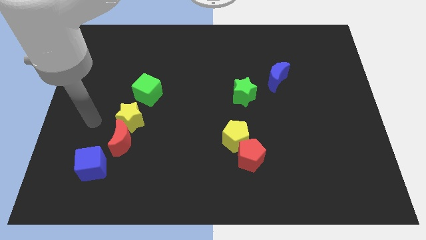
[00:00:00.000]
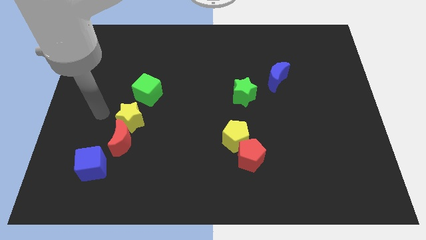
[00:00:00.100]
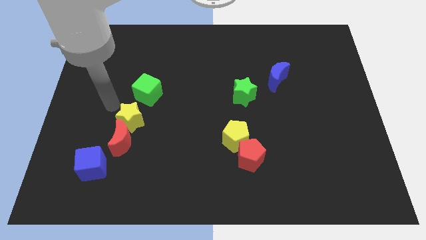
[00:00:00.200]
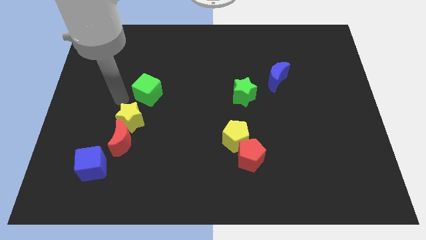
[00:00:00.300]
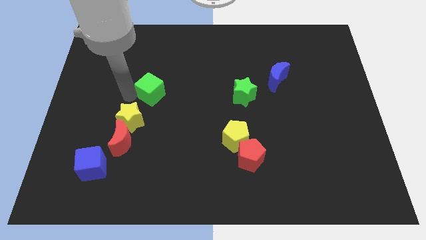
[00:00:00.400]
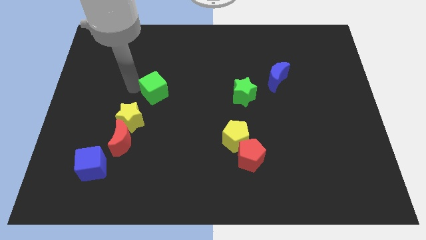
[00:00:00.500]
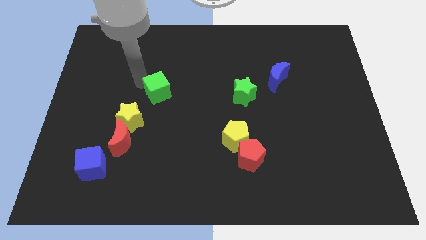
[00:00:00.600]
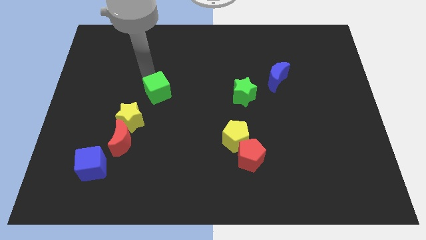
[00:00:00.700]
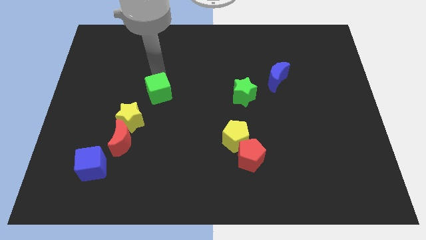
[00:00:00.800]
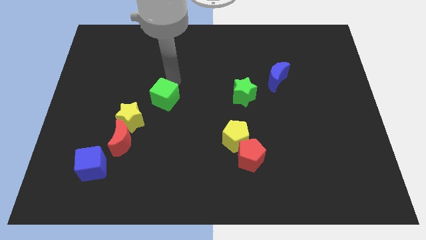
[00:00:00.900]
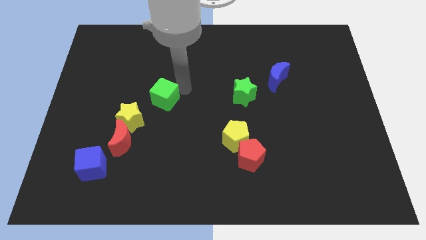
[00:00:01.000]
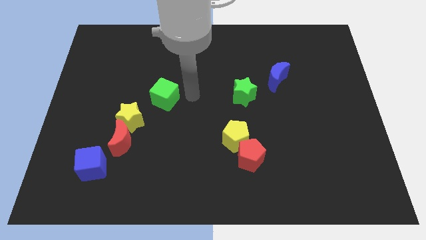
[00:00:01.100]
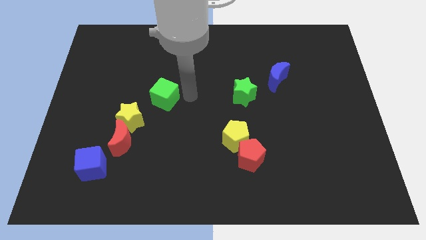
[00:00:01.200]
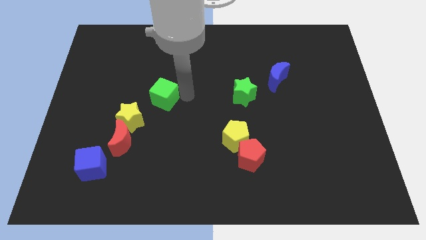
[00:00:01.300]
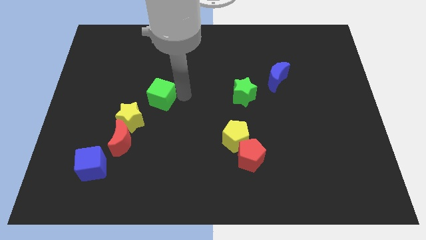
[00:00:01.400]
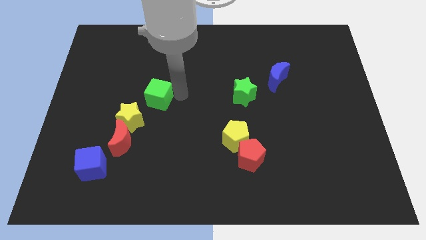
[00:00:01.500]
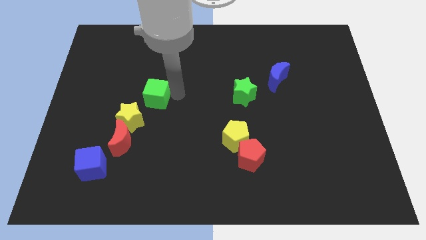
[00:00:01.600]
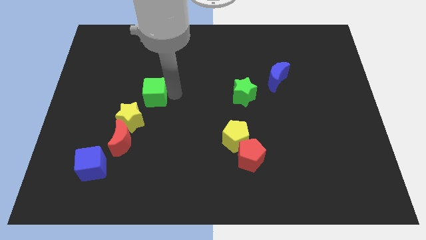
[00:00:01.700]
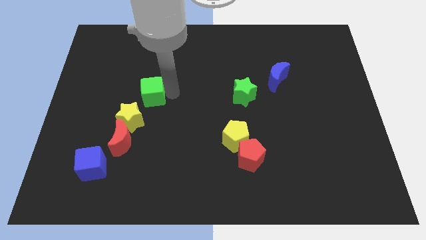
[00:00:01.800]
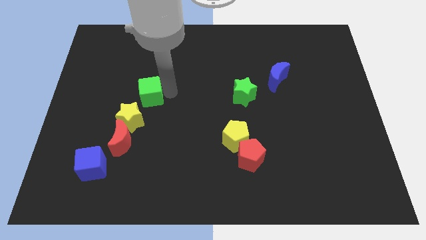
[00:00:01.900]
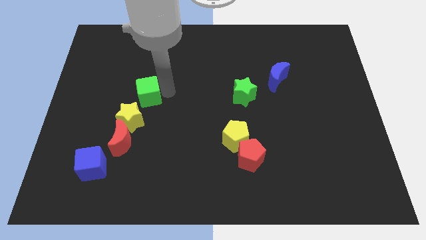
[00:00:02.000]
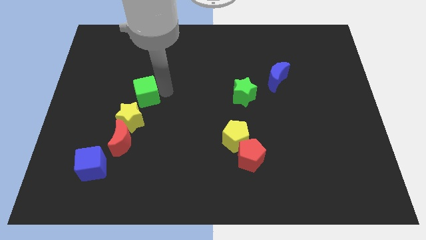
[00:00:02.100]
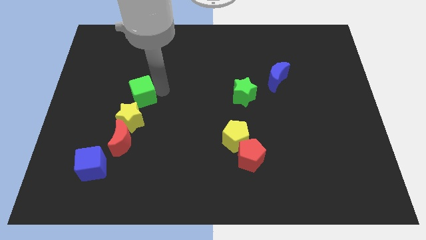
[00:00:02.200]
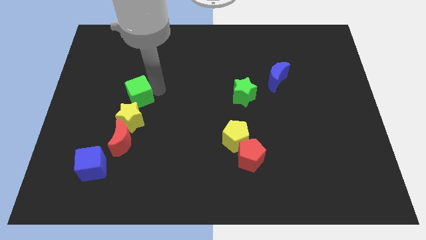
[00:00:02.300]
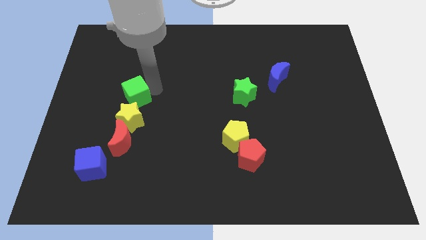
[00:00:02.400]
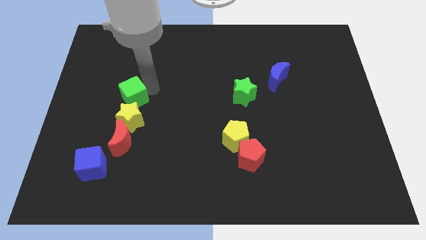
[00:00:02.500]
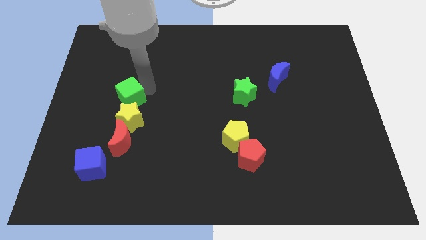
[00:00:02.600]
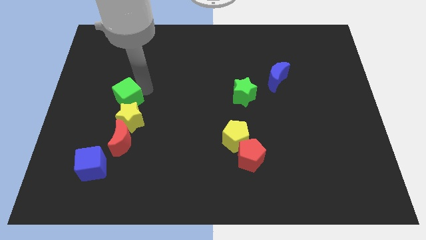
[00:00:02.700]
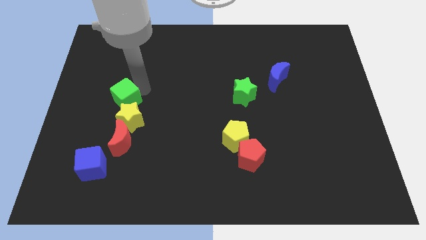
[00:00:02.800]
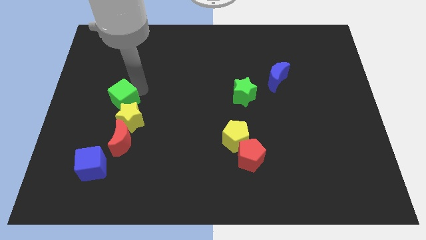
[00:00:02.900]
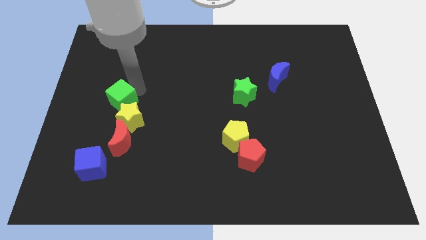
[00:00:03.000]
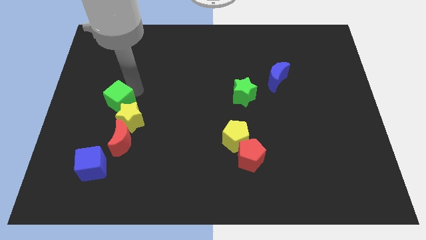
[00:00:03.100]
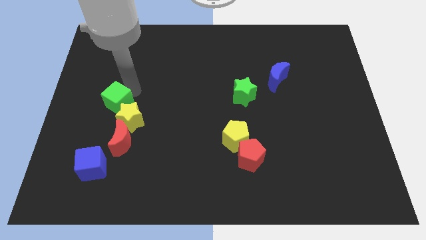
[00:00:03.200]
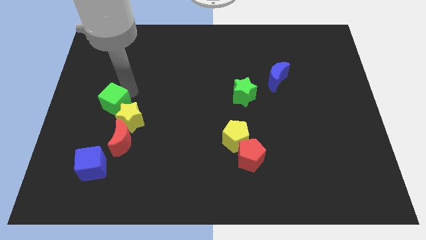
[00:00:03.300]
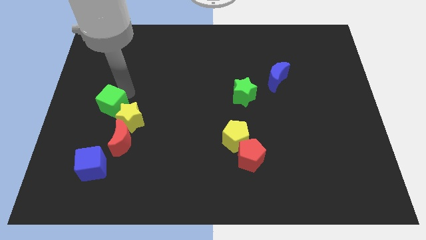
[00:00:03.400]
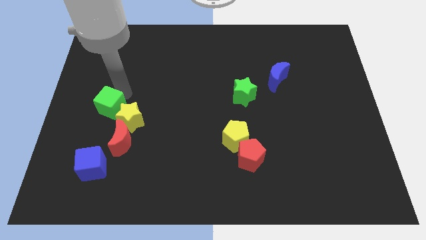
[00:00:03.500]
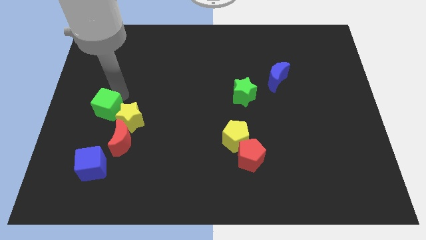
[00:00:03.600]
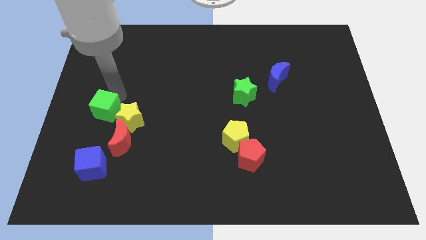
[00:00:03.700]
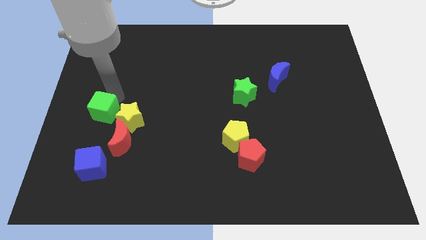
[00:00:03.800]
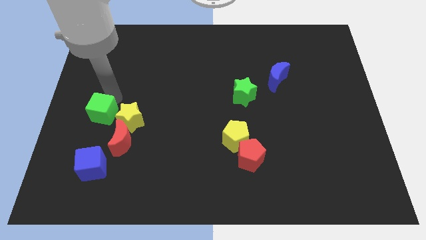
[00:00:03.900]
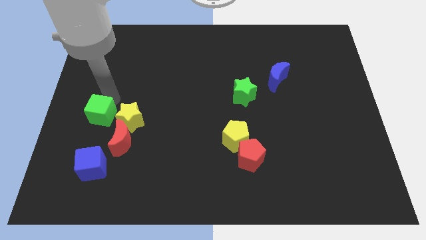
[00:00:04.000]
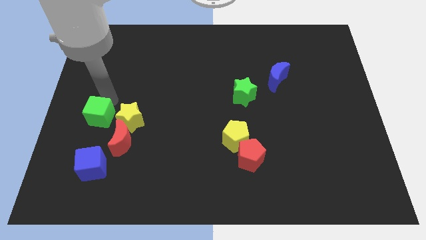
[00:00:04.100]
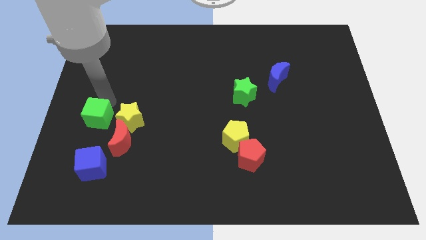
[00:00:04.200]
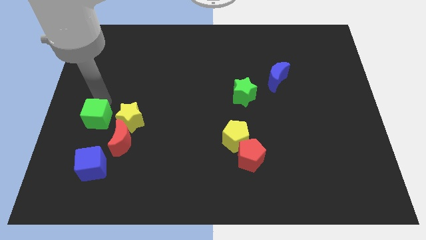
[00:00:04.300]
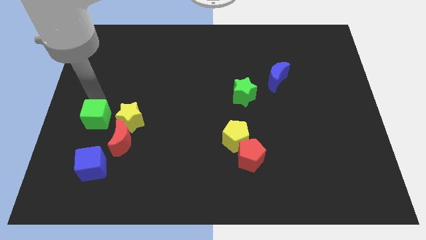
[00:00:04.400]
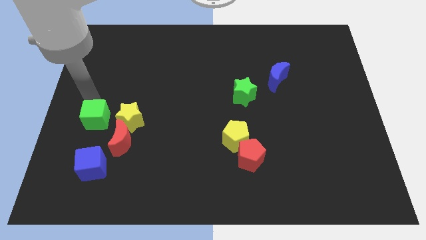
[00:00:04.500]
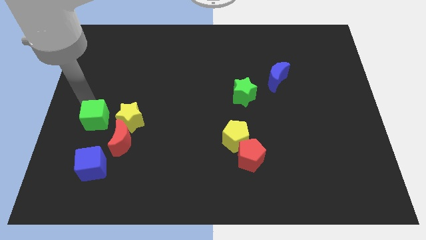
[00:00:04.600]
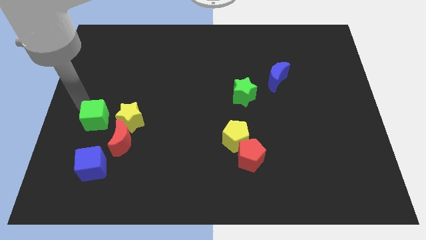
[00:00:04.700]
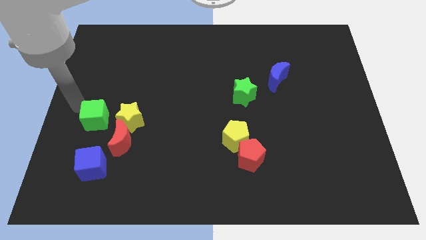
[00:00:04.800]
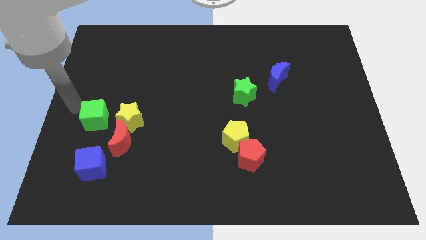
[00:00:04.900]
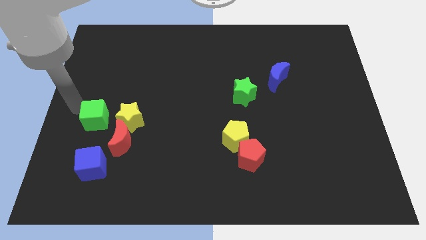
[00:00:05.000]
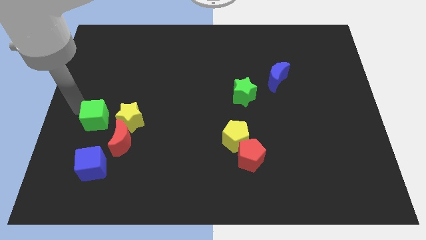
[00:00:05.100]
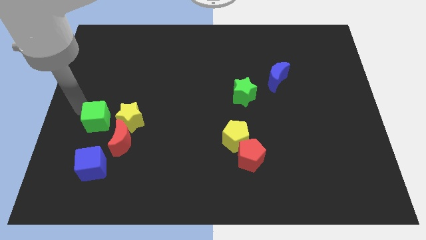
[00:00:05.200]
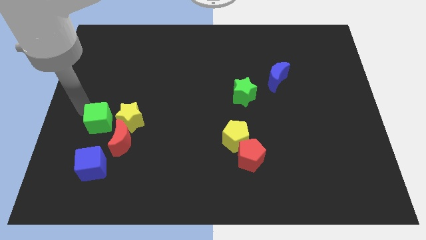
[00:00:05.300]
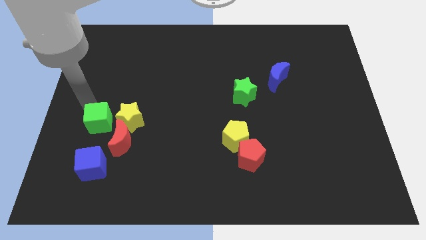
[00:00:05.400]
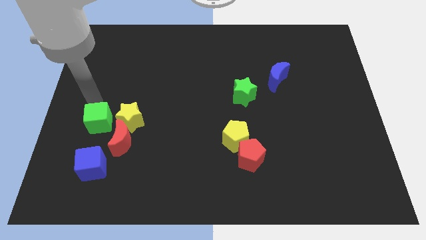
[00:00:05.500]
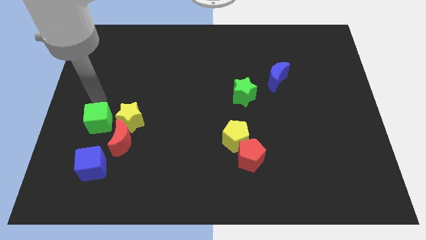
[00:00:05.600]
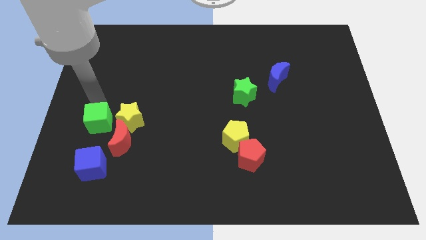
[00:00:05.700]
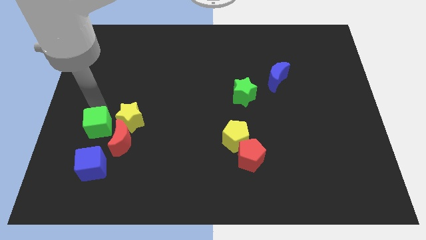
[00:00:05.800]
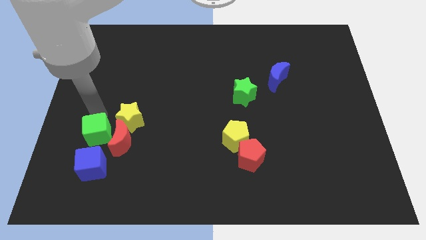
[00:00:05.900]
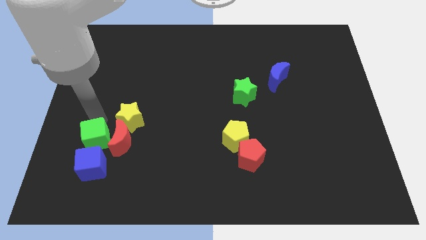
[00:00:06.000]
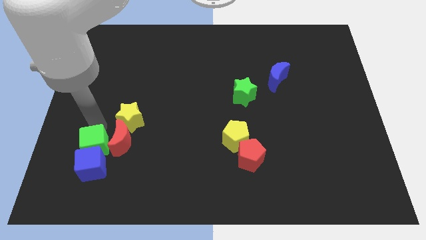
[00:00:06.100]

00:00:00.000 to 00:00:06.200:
slide the green cube close to the blue cube

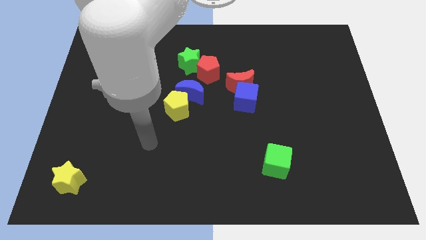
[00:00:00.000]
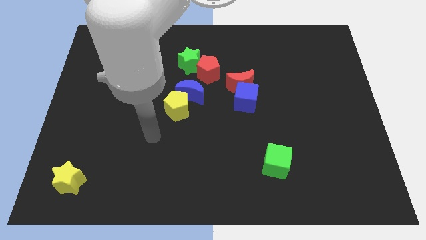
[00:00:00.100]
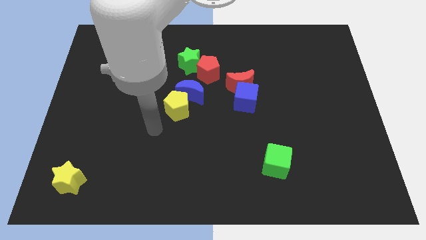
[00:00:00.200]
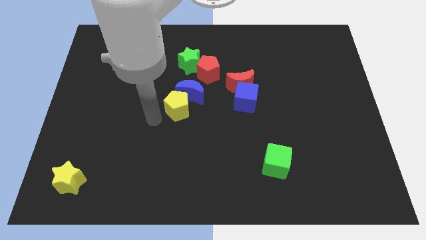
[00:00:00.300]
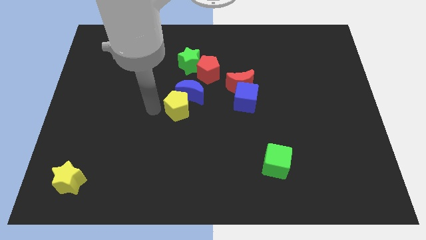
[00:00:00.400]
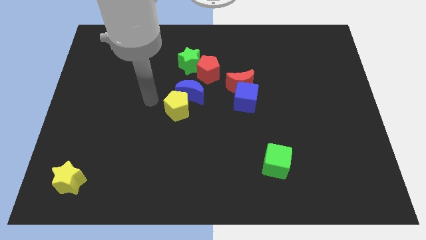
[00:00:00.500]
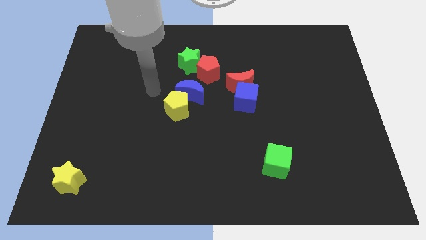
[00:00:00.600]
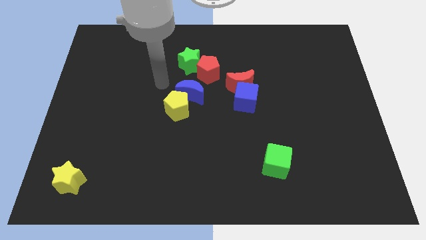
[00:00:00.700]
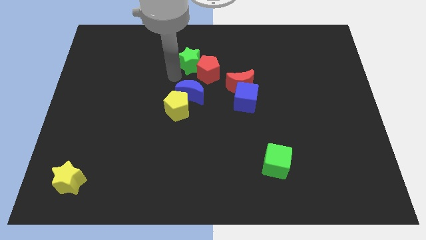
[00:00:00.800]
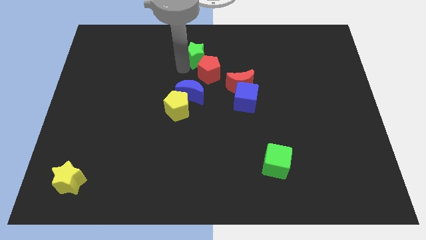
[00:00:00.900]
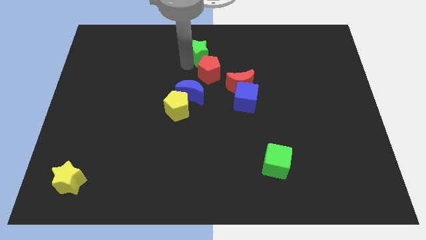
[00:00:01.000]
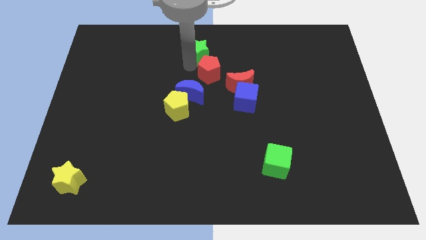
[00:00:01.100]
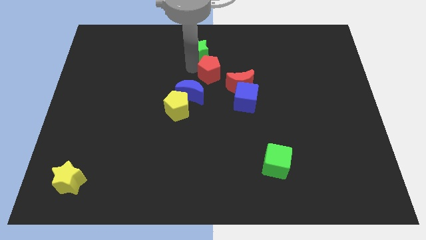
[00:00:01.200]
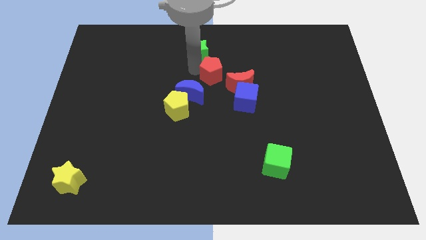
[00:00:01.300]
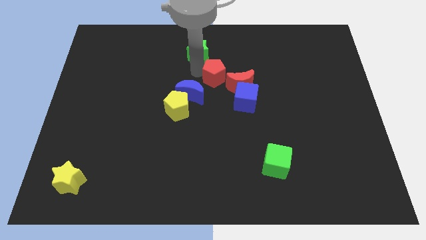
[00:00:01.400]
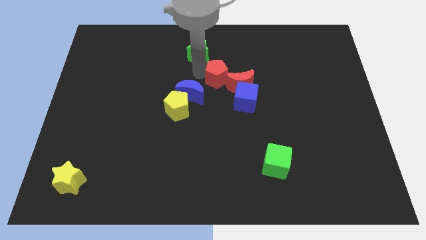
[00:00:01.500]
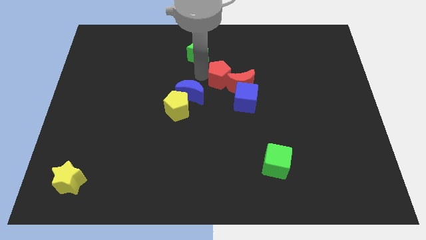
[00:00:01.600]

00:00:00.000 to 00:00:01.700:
slide the red pentagon close to the red moon
